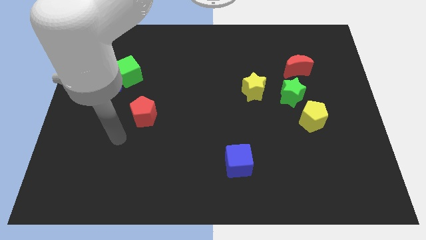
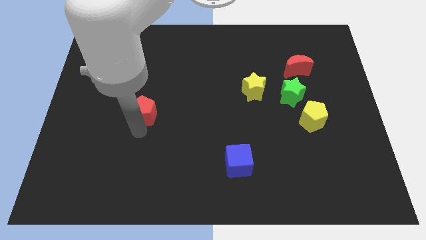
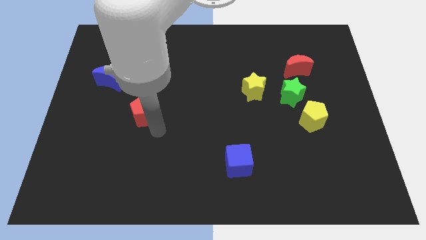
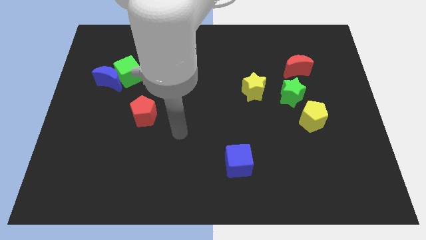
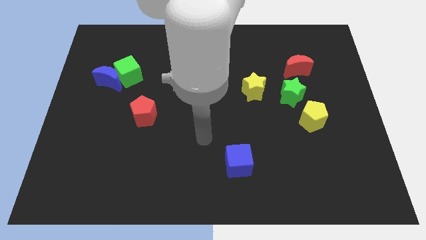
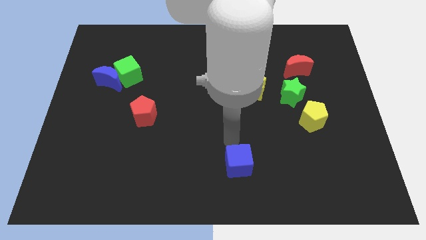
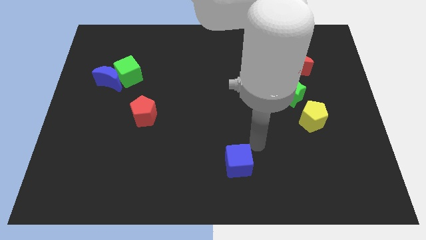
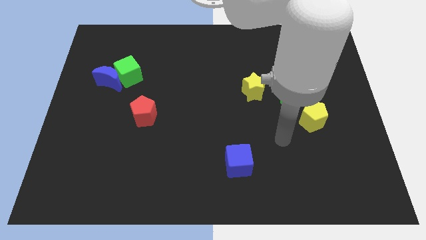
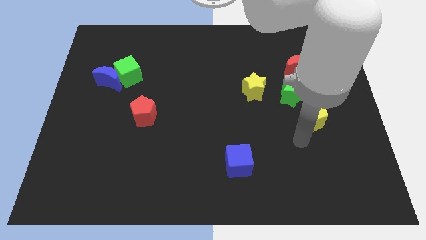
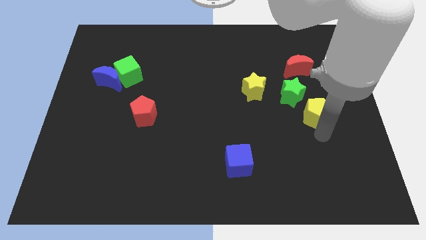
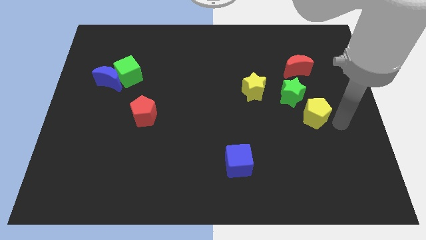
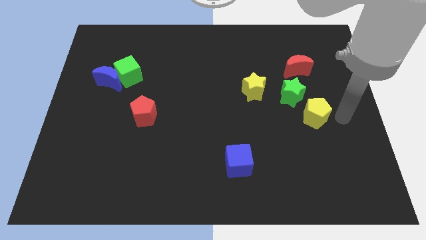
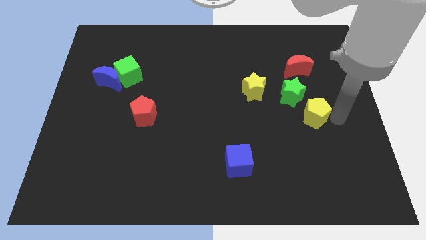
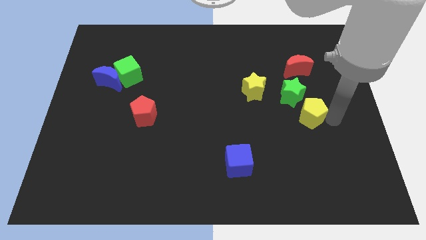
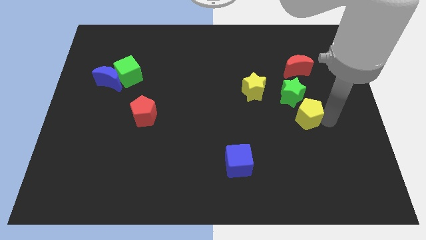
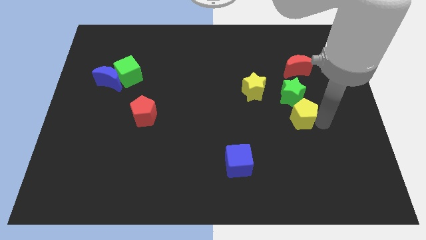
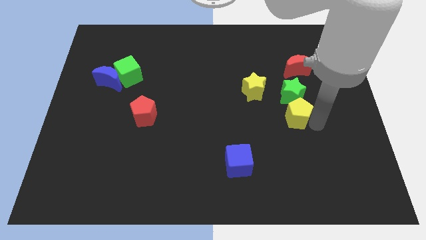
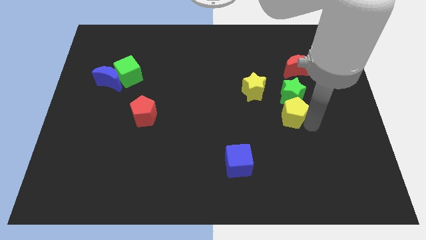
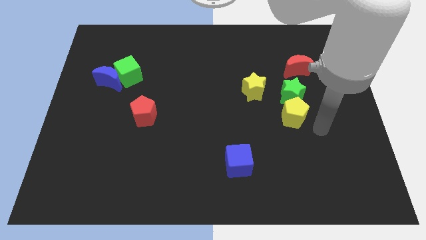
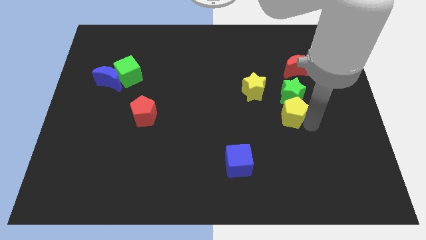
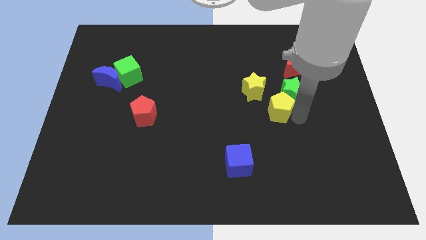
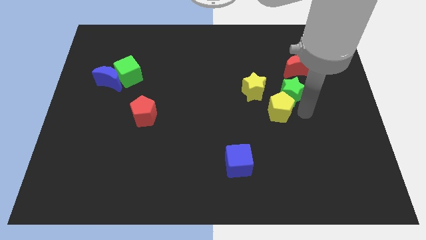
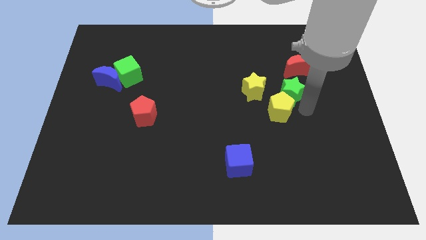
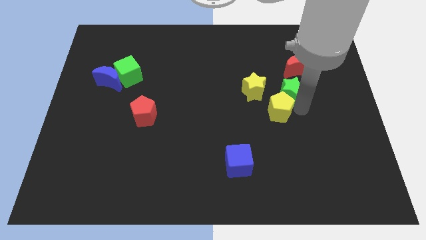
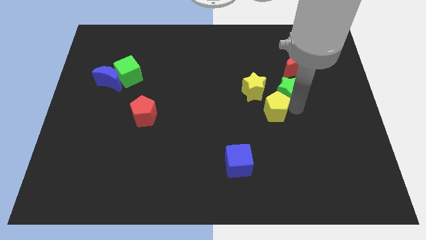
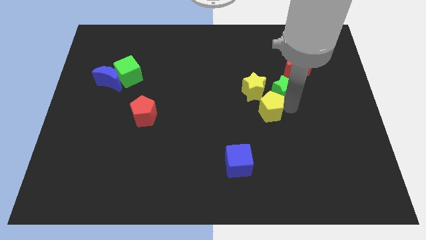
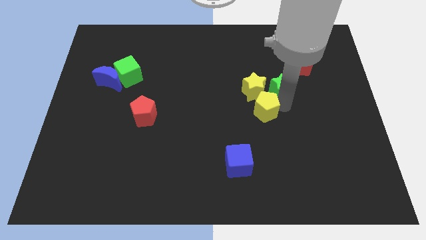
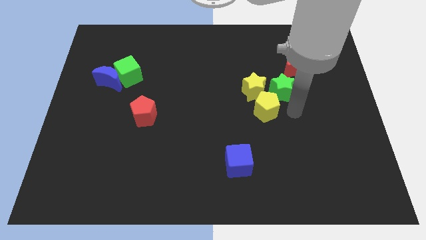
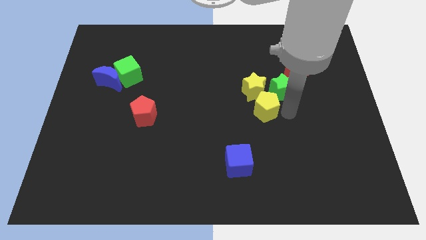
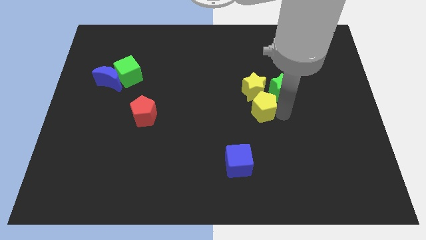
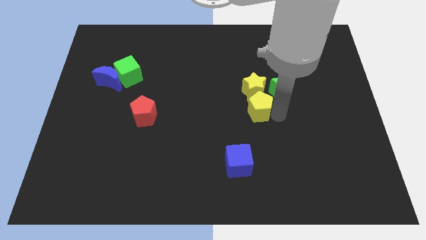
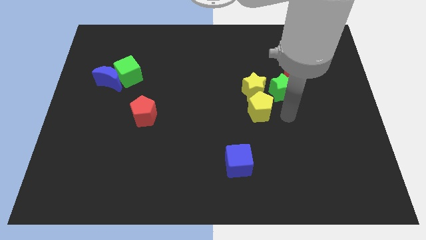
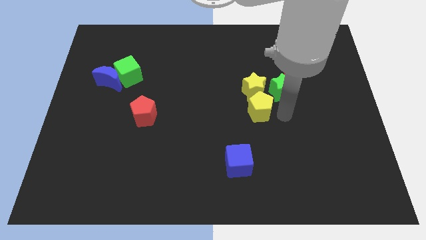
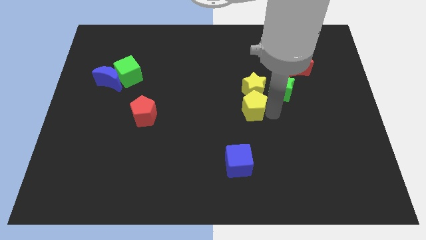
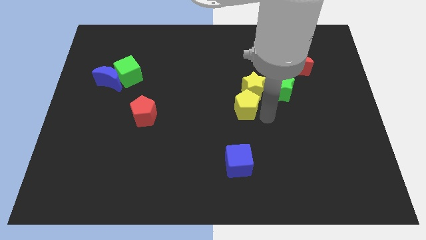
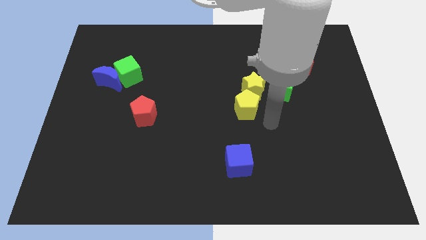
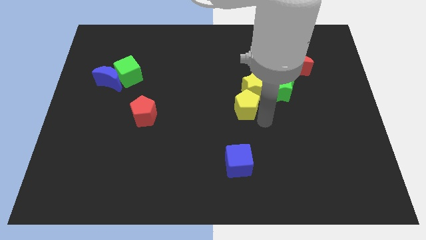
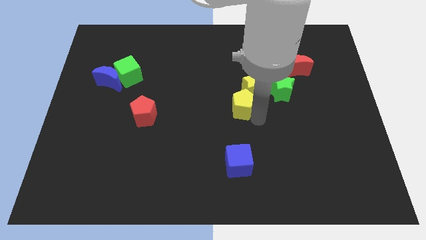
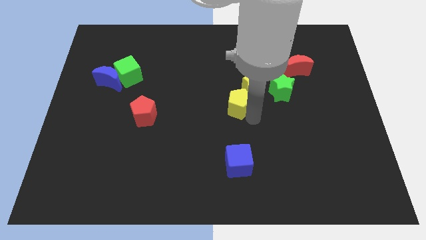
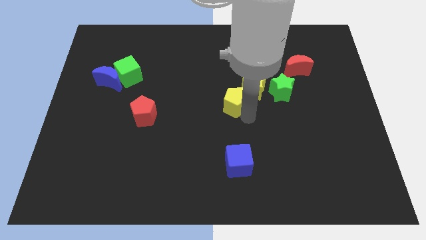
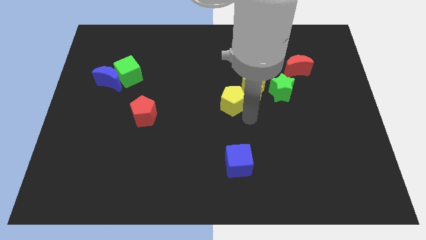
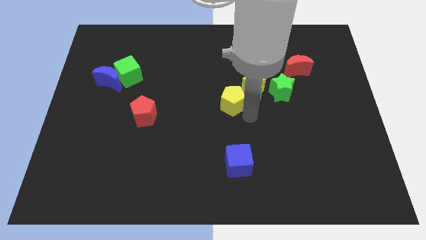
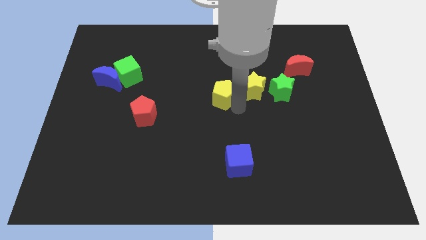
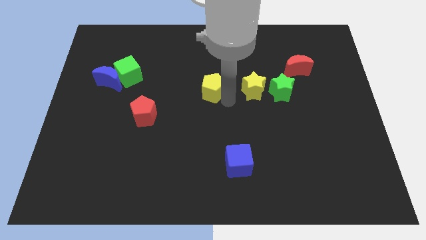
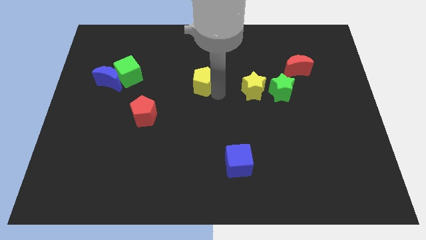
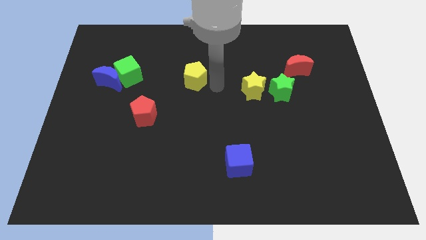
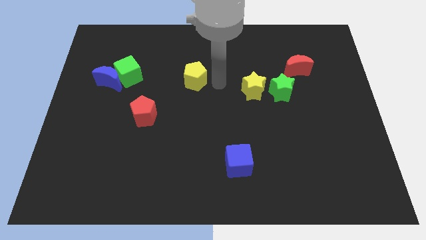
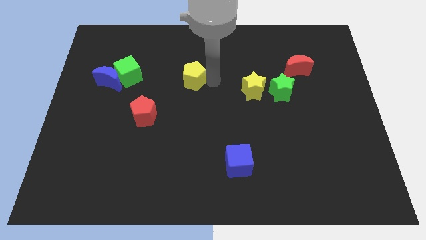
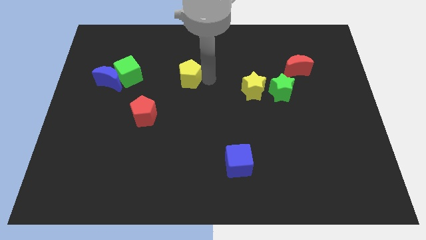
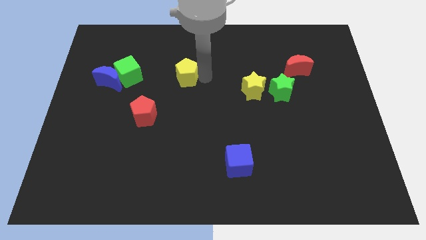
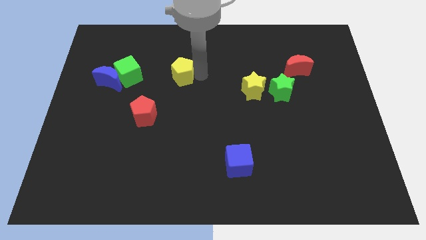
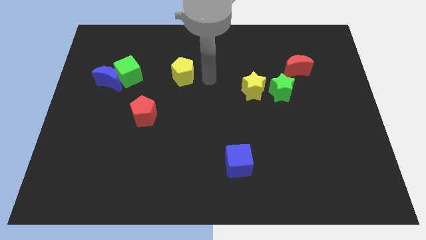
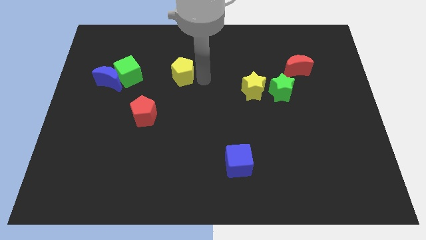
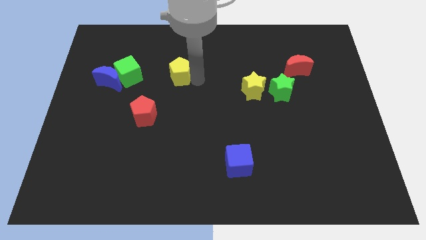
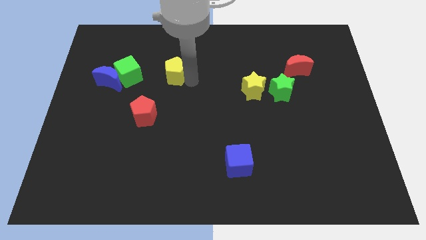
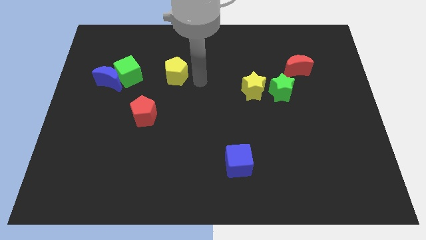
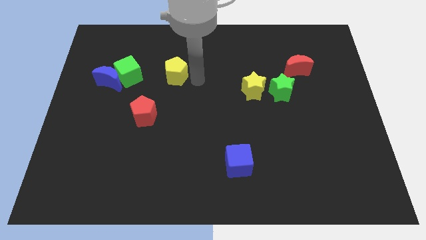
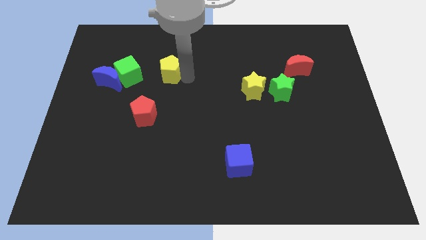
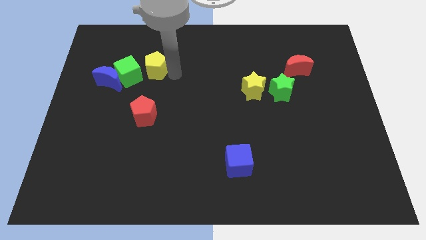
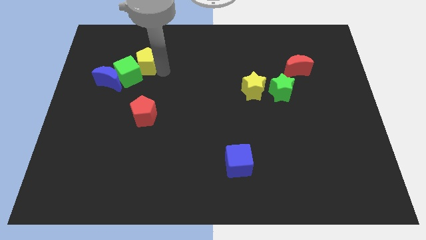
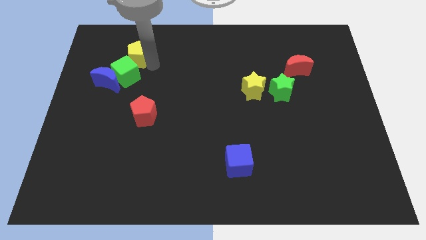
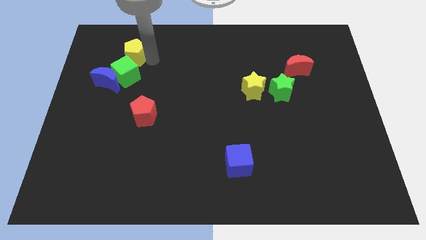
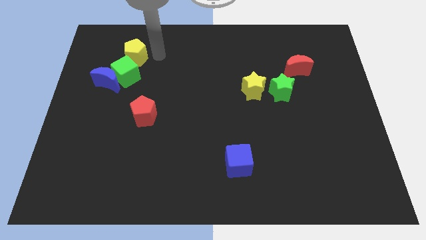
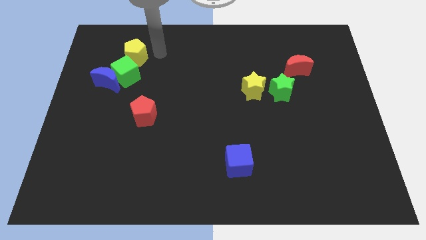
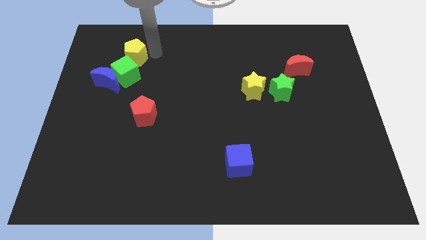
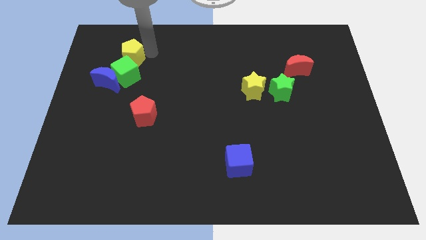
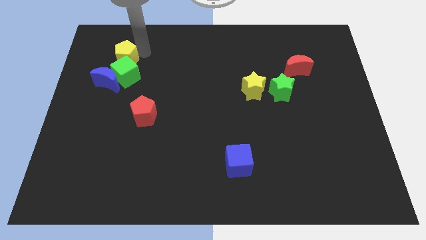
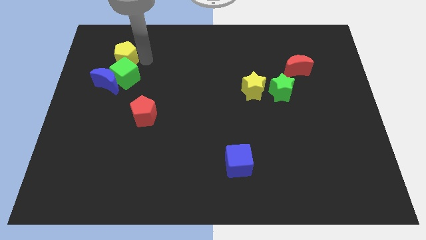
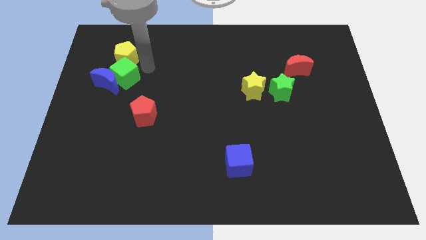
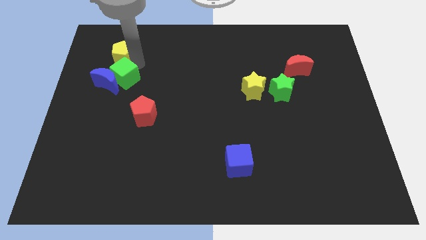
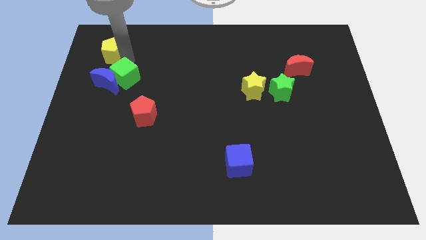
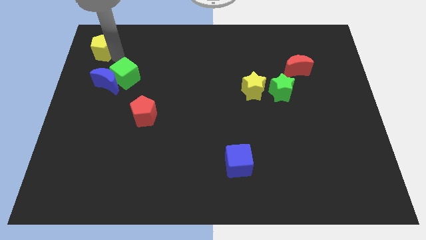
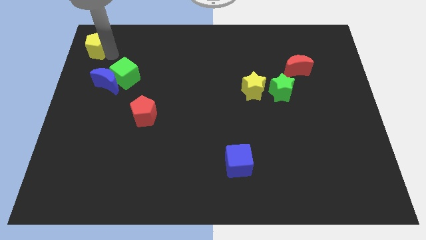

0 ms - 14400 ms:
slide the yellow pentagon to the top left corner
